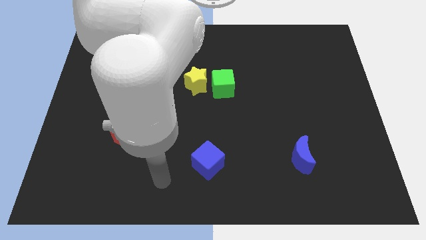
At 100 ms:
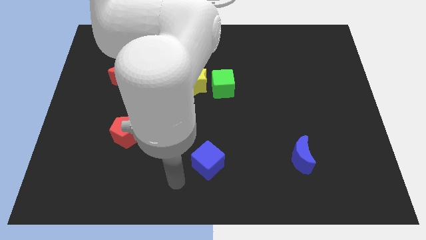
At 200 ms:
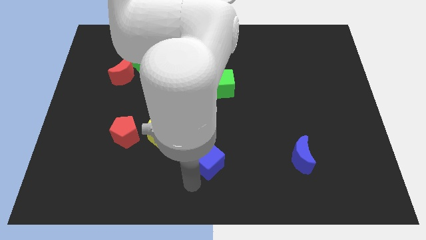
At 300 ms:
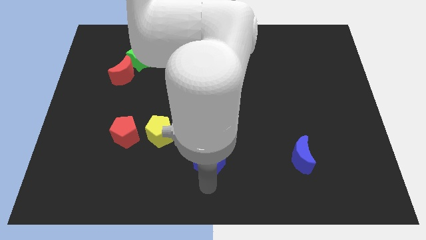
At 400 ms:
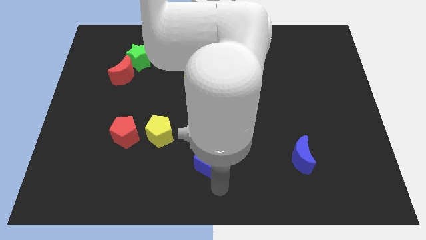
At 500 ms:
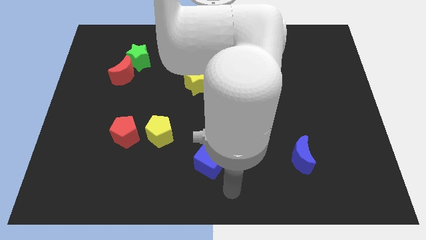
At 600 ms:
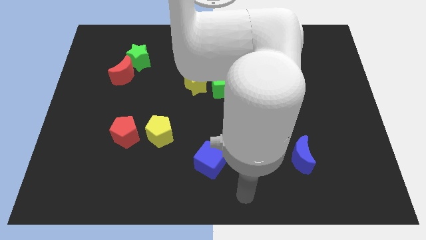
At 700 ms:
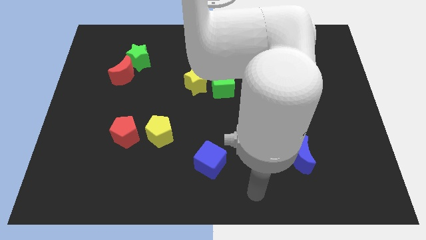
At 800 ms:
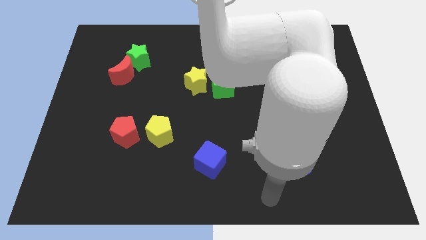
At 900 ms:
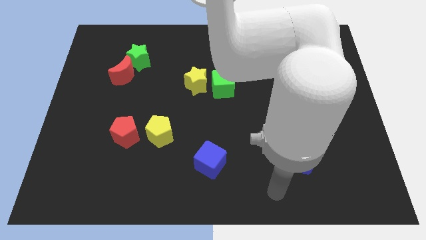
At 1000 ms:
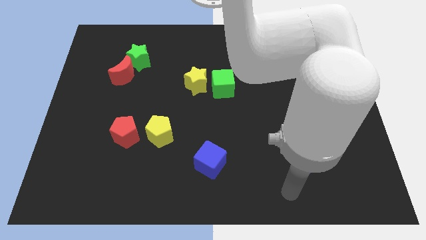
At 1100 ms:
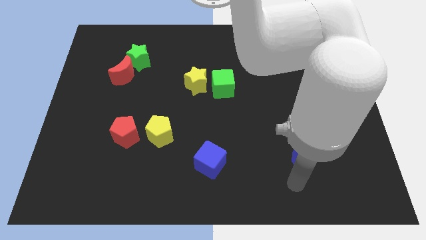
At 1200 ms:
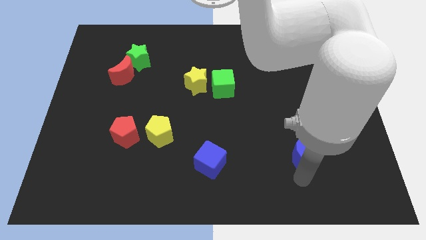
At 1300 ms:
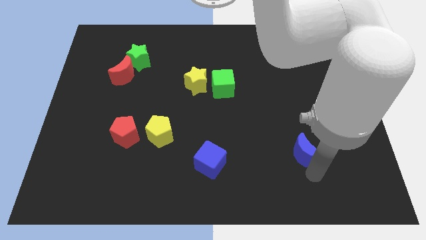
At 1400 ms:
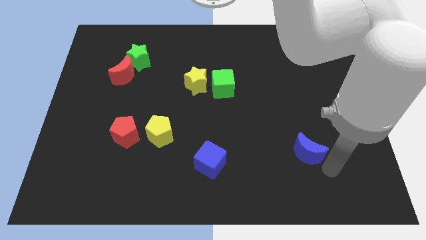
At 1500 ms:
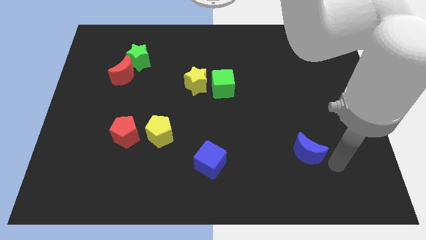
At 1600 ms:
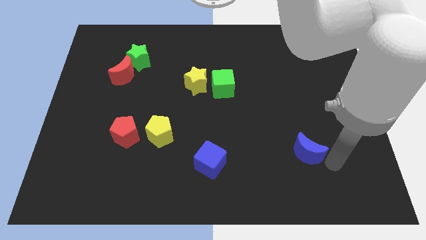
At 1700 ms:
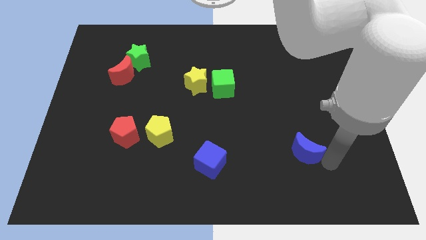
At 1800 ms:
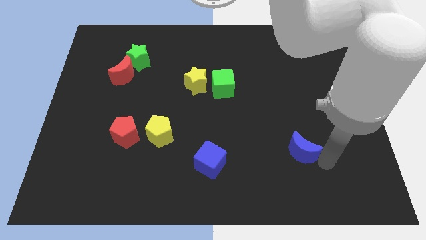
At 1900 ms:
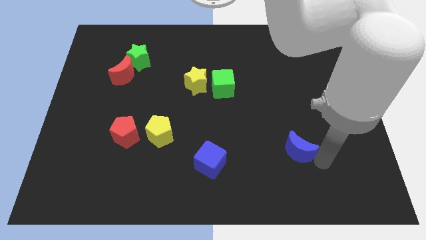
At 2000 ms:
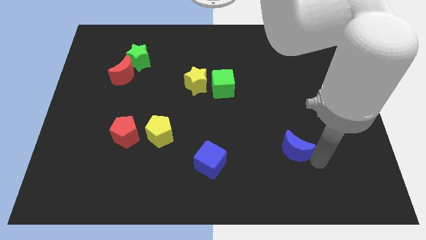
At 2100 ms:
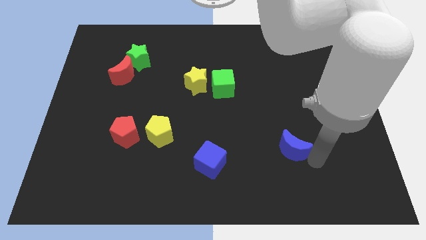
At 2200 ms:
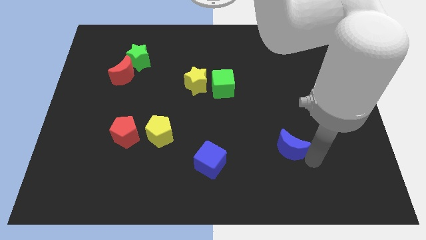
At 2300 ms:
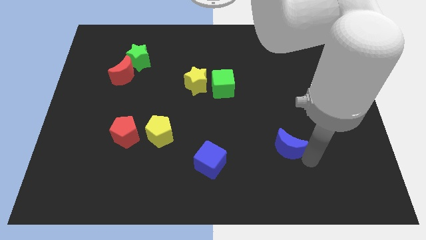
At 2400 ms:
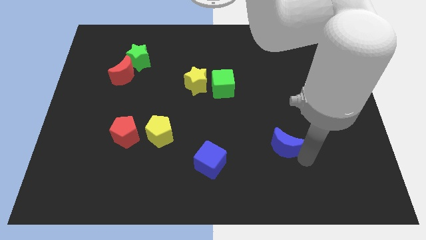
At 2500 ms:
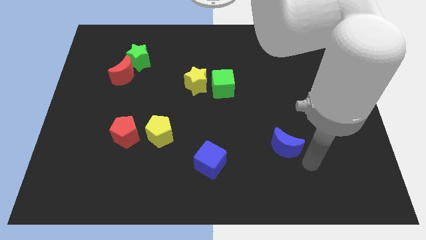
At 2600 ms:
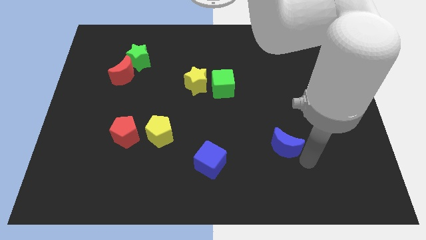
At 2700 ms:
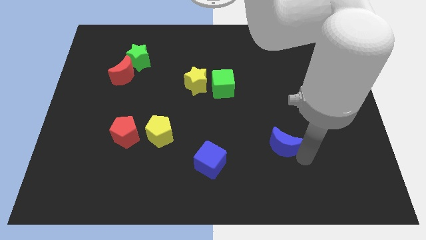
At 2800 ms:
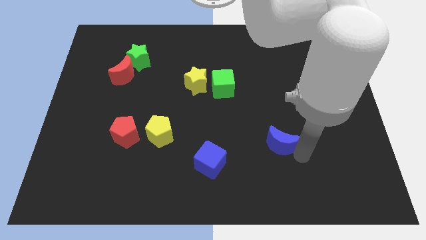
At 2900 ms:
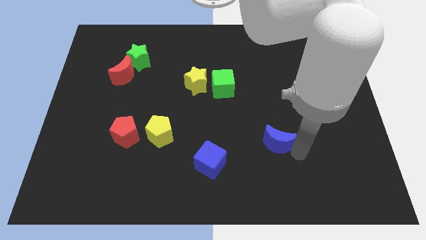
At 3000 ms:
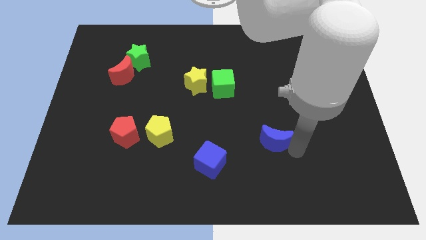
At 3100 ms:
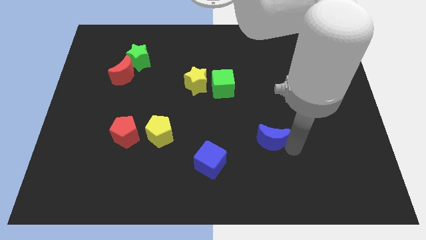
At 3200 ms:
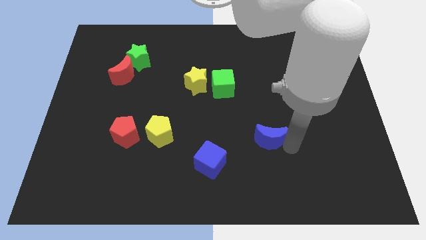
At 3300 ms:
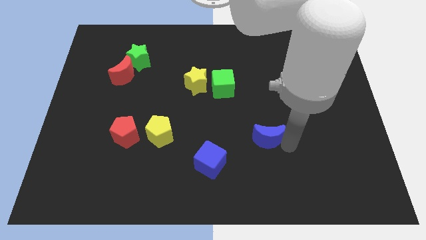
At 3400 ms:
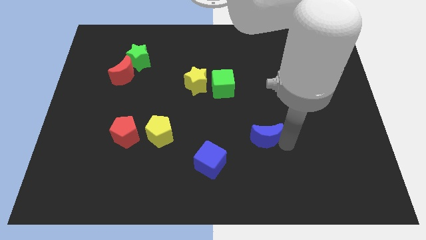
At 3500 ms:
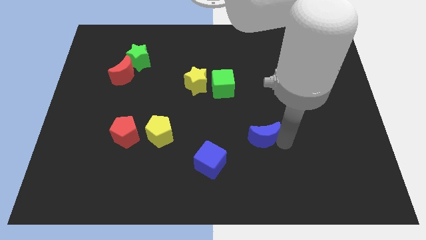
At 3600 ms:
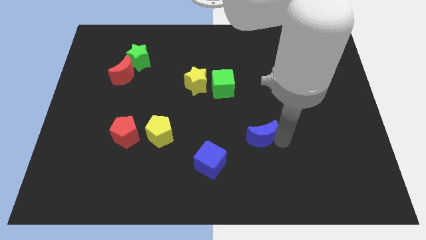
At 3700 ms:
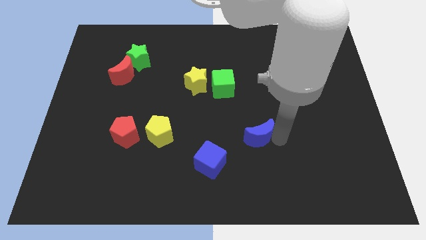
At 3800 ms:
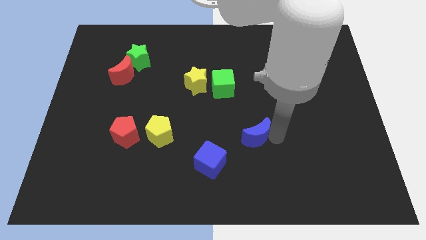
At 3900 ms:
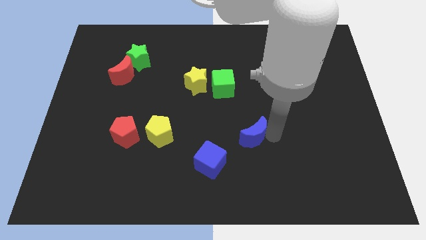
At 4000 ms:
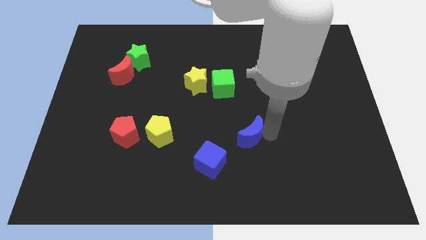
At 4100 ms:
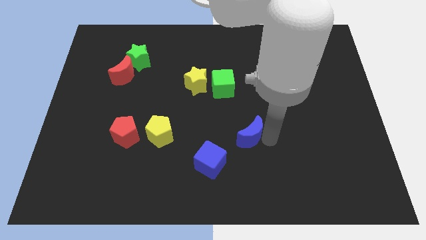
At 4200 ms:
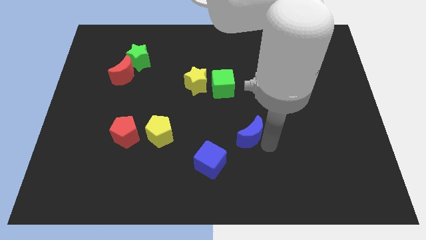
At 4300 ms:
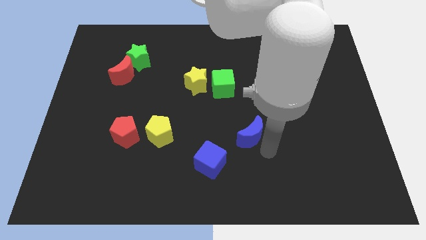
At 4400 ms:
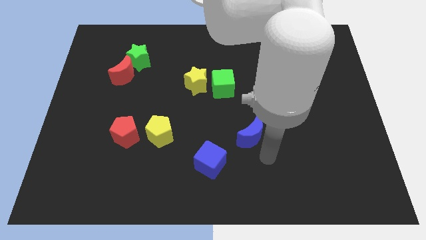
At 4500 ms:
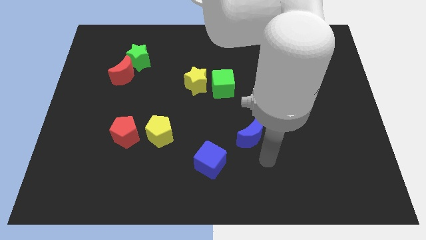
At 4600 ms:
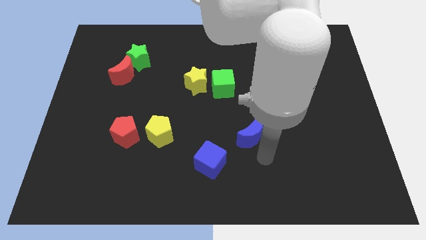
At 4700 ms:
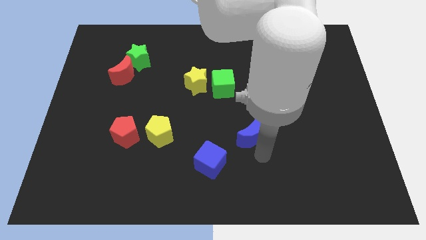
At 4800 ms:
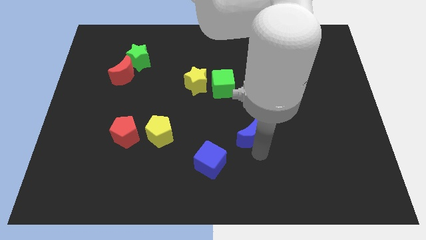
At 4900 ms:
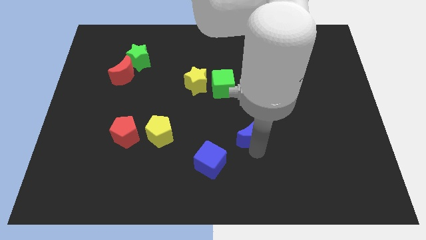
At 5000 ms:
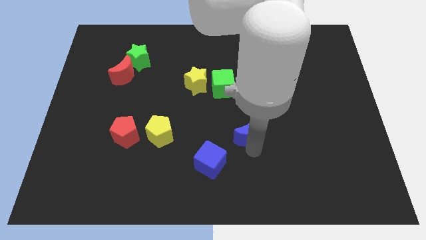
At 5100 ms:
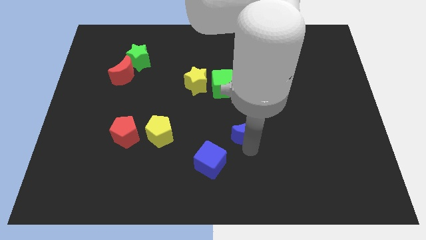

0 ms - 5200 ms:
slide the blue moon to the middle of the board

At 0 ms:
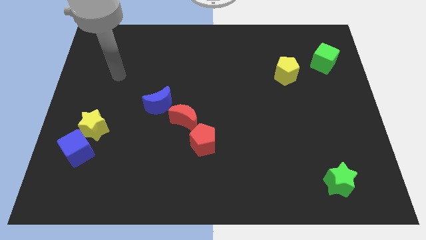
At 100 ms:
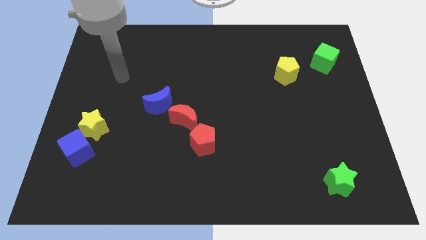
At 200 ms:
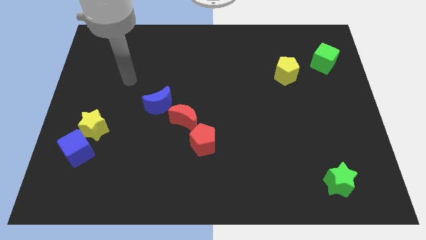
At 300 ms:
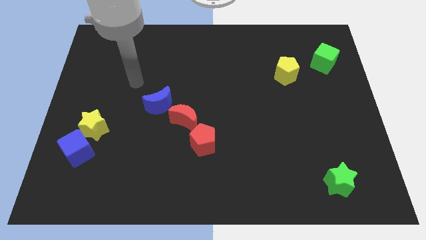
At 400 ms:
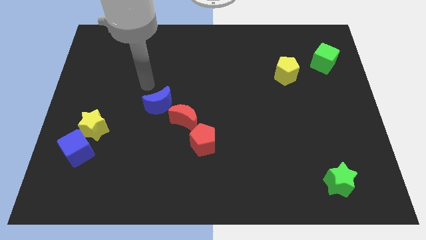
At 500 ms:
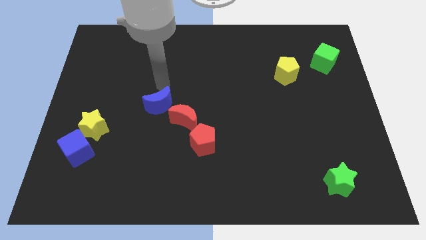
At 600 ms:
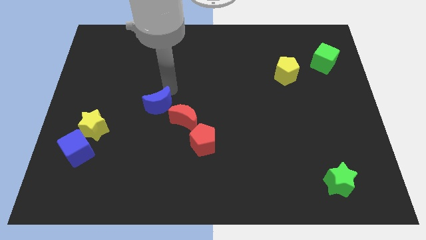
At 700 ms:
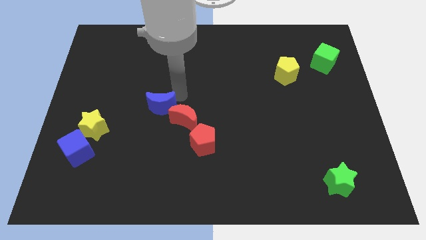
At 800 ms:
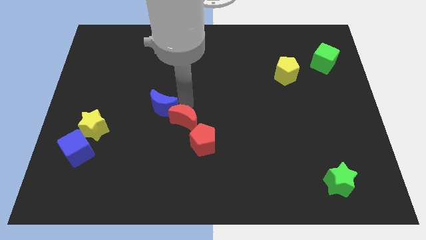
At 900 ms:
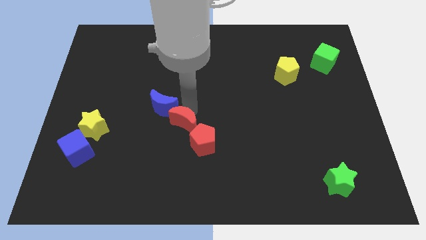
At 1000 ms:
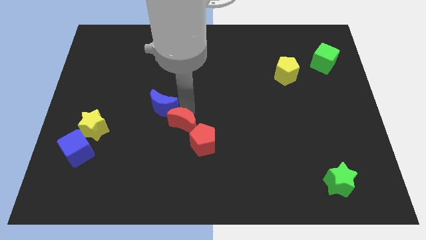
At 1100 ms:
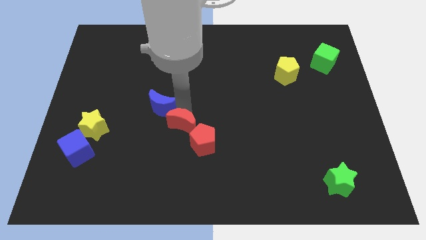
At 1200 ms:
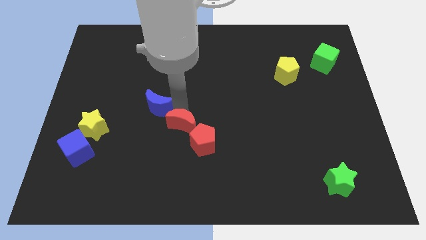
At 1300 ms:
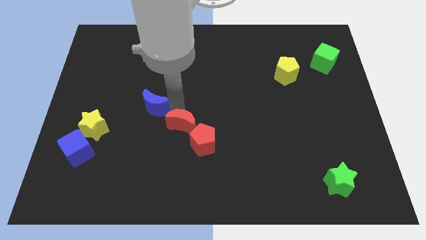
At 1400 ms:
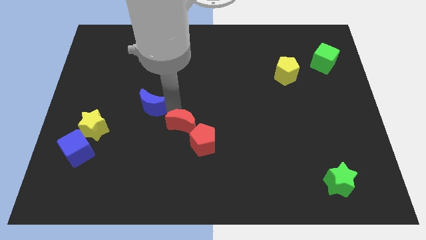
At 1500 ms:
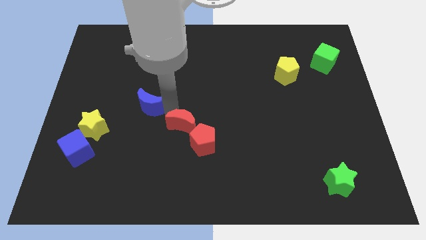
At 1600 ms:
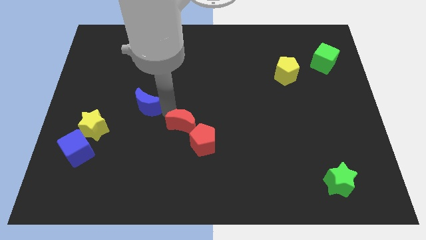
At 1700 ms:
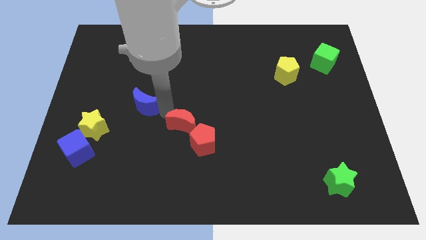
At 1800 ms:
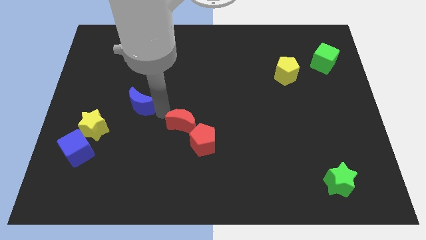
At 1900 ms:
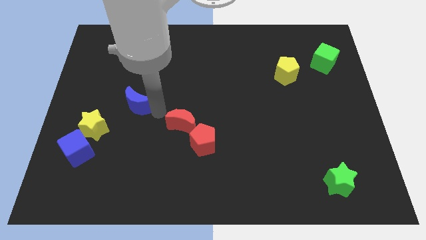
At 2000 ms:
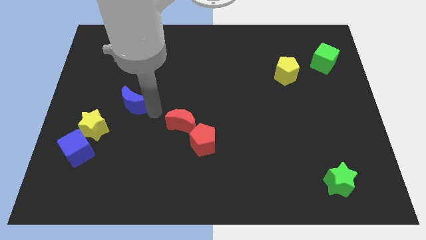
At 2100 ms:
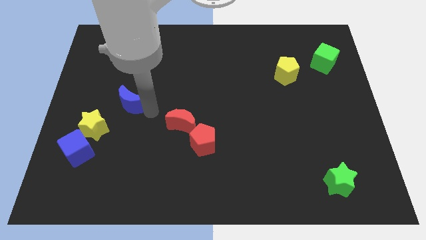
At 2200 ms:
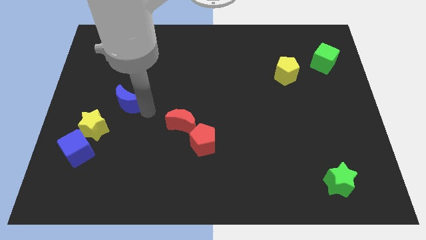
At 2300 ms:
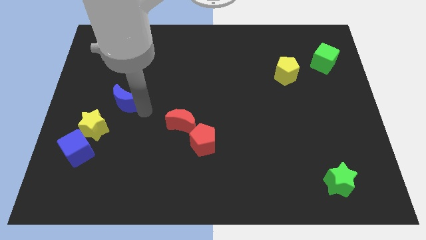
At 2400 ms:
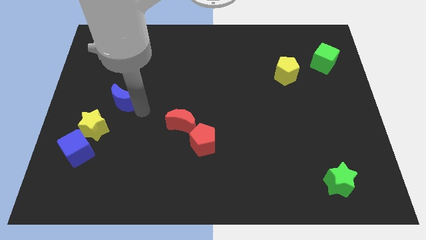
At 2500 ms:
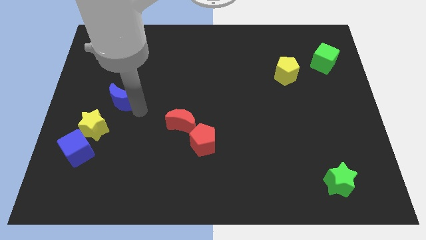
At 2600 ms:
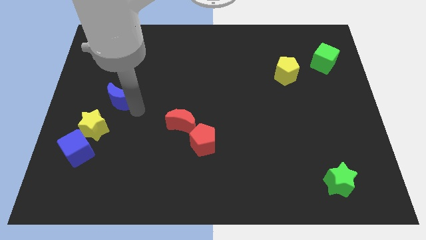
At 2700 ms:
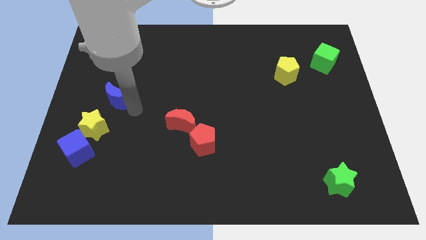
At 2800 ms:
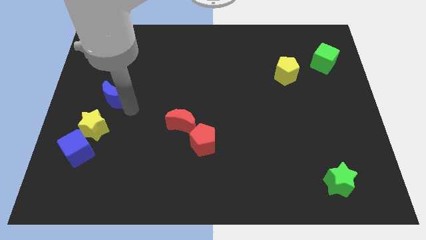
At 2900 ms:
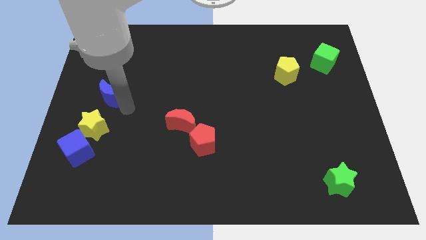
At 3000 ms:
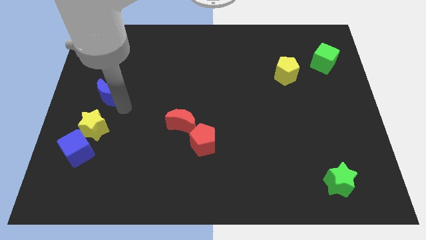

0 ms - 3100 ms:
push the blue moon to the left side of the board
